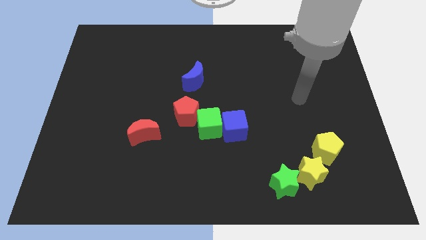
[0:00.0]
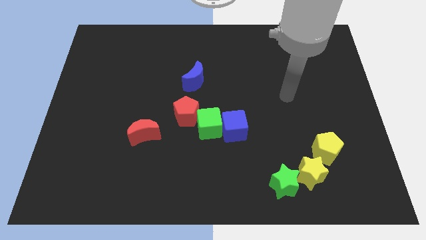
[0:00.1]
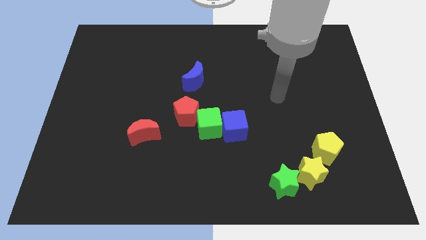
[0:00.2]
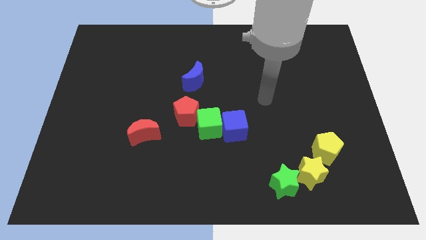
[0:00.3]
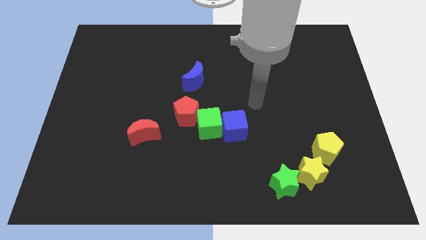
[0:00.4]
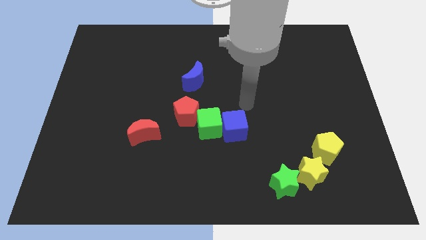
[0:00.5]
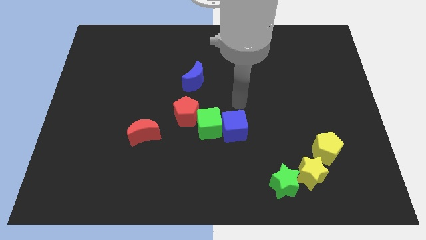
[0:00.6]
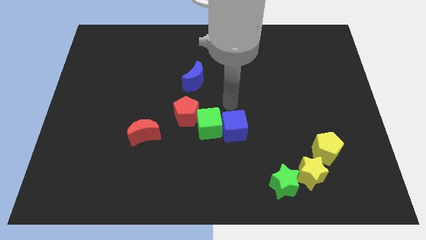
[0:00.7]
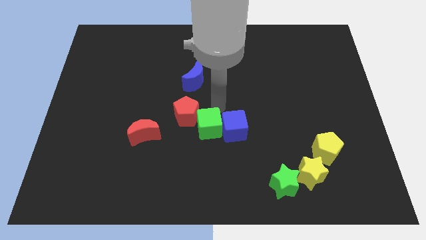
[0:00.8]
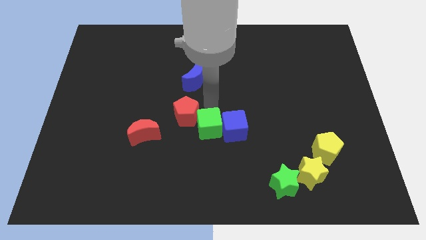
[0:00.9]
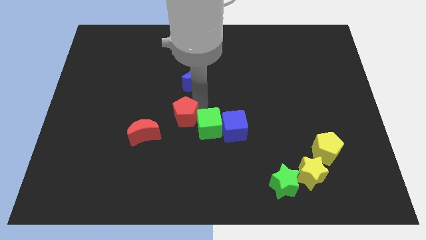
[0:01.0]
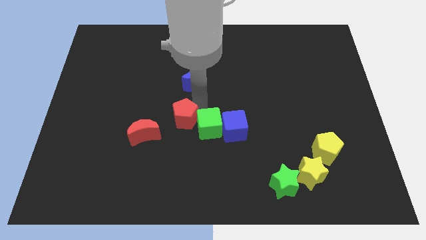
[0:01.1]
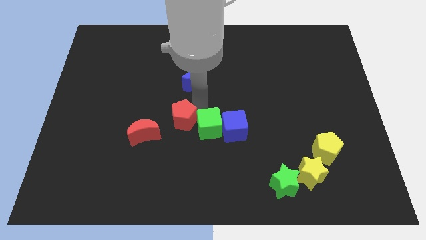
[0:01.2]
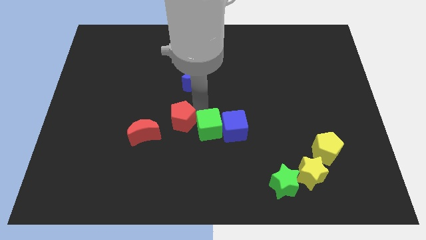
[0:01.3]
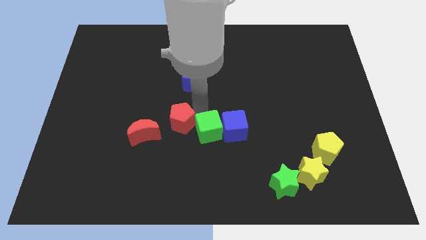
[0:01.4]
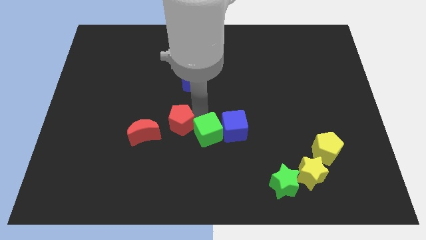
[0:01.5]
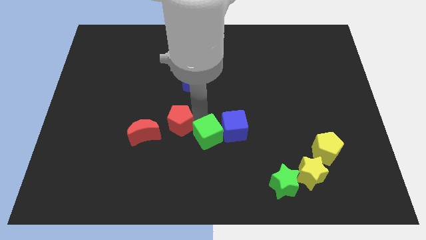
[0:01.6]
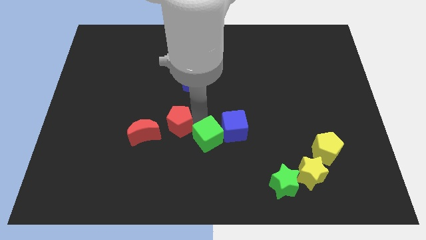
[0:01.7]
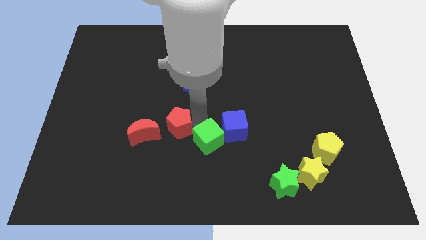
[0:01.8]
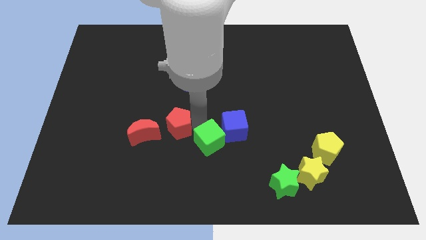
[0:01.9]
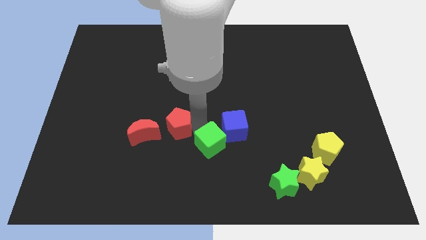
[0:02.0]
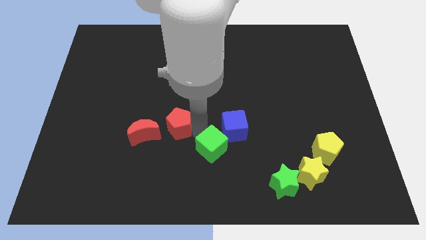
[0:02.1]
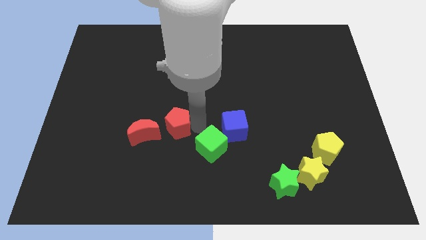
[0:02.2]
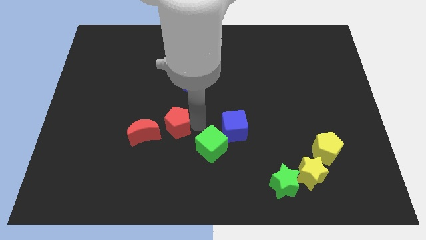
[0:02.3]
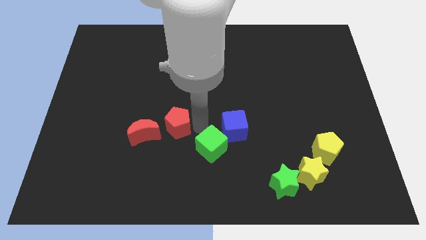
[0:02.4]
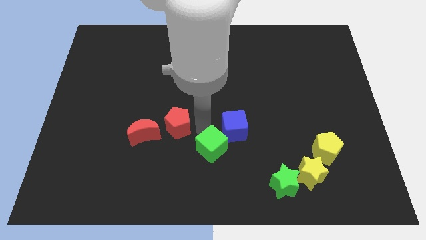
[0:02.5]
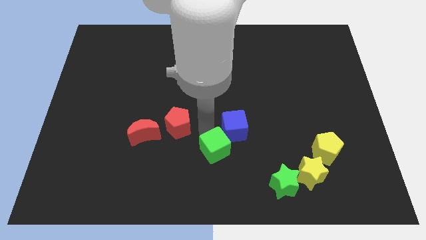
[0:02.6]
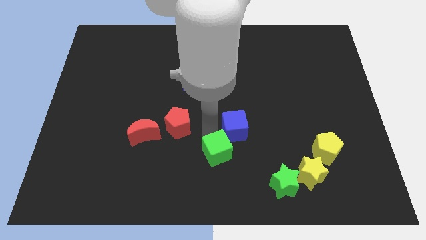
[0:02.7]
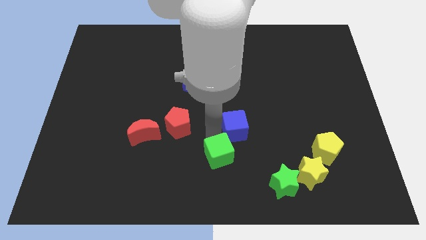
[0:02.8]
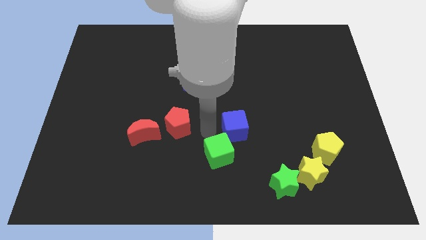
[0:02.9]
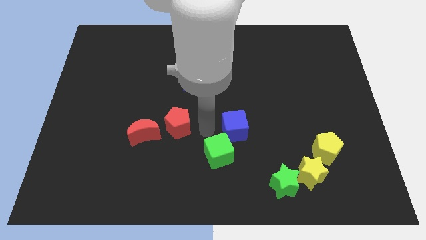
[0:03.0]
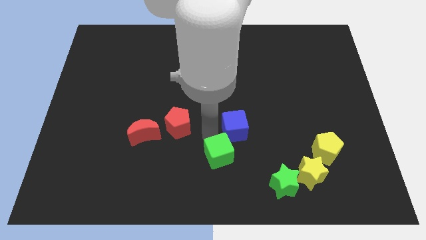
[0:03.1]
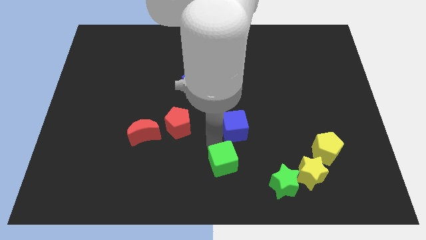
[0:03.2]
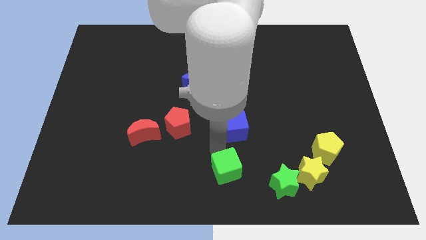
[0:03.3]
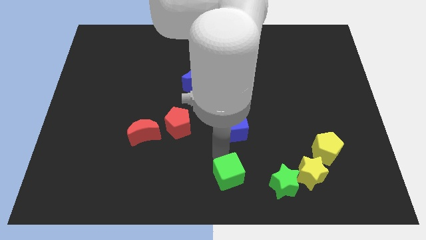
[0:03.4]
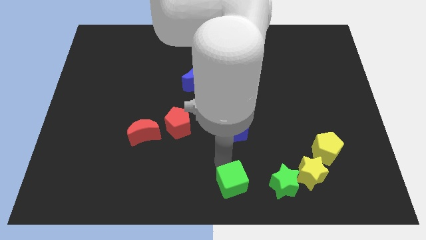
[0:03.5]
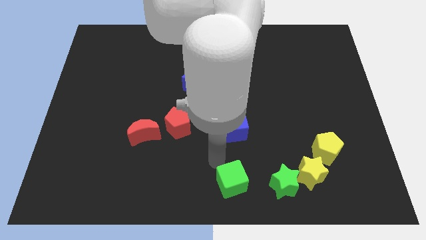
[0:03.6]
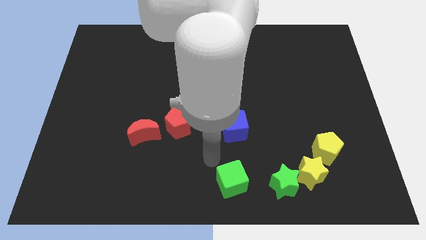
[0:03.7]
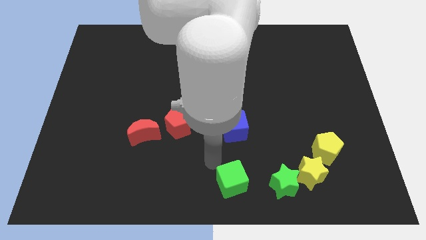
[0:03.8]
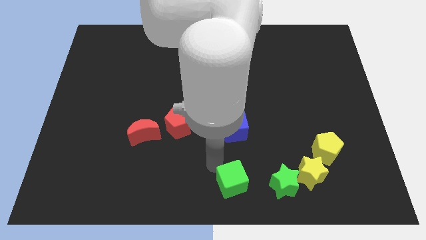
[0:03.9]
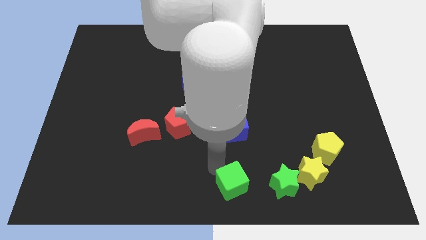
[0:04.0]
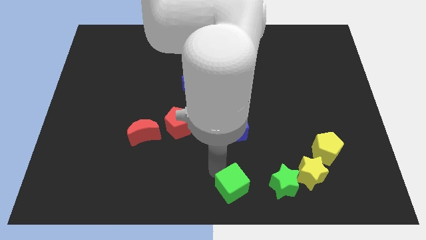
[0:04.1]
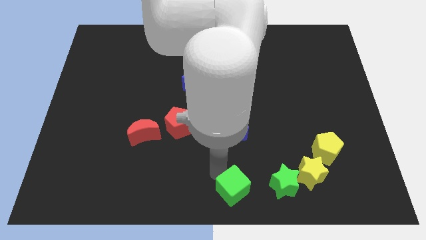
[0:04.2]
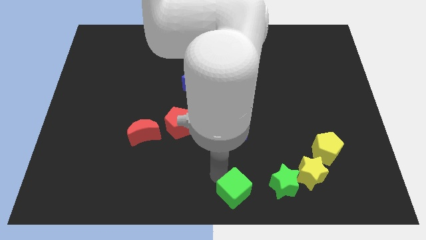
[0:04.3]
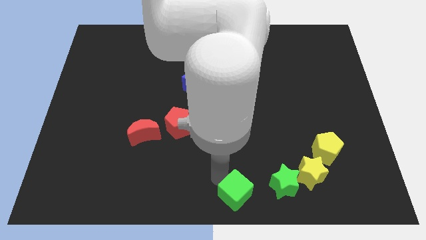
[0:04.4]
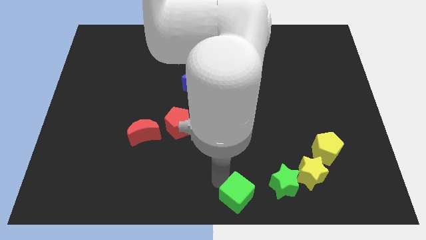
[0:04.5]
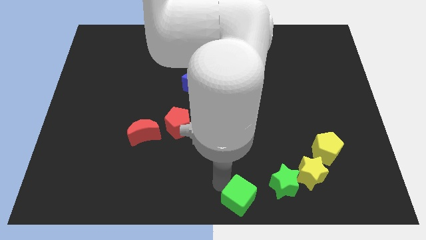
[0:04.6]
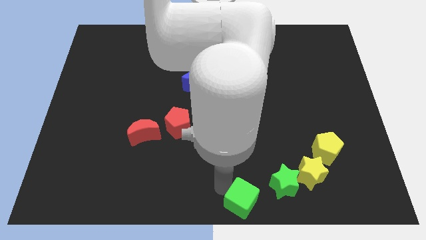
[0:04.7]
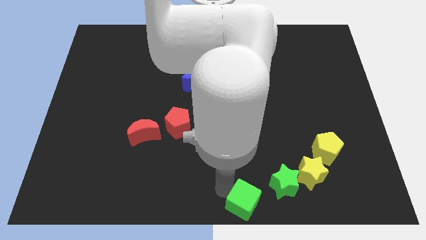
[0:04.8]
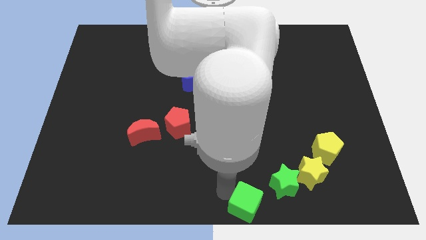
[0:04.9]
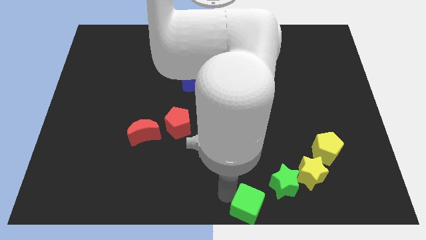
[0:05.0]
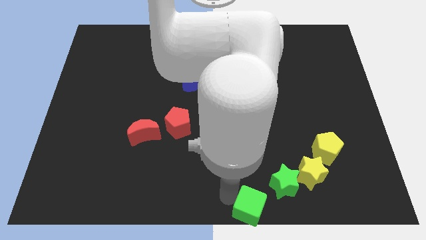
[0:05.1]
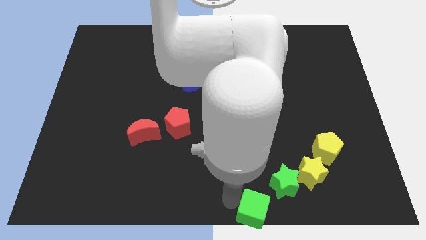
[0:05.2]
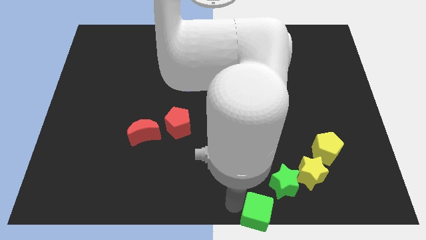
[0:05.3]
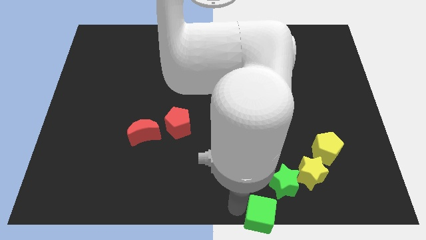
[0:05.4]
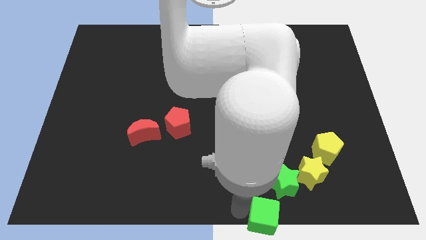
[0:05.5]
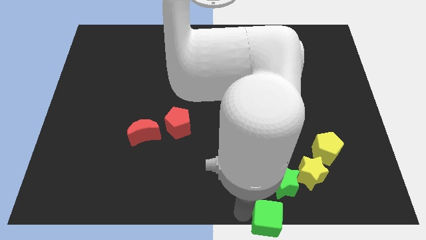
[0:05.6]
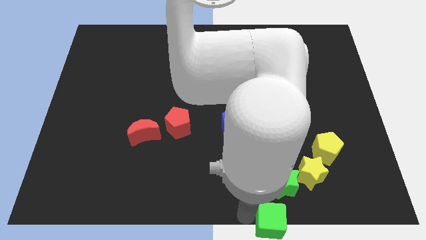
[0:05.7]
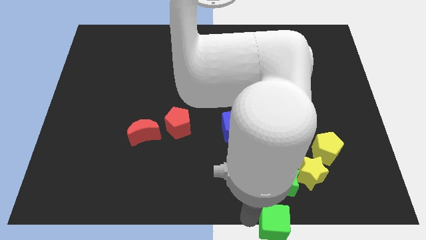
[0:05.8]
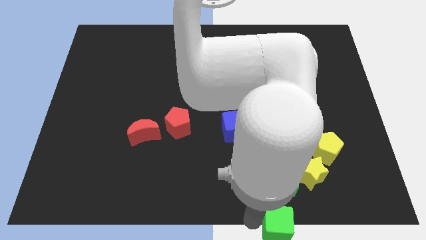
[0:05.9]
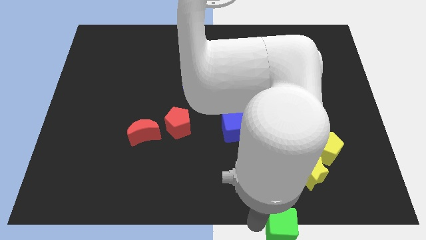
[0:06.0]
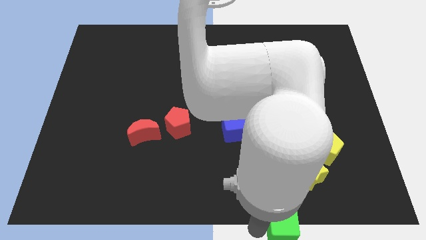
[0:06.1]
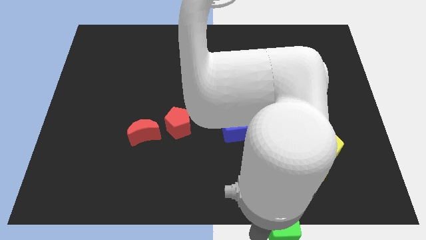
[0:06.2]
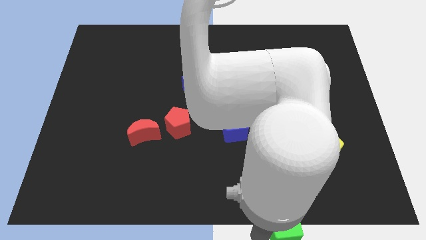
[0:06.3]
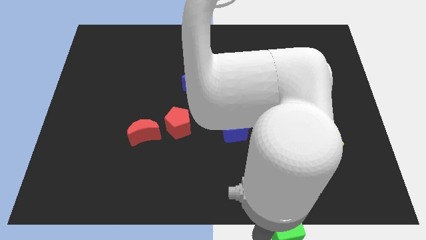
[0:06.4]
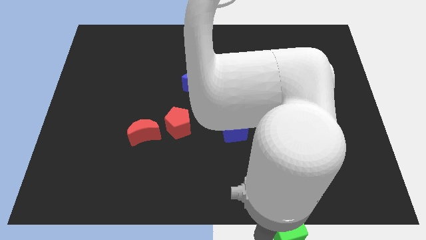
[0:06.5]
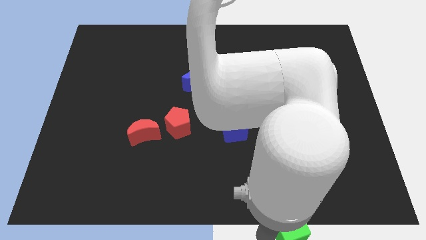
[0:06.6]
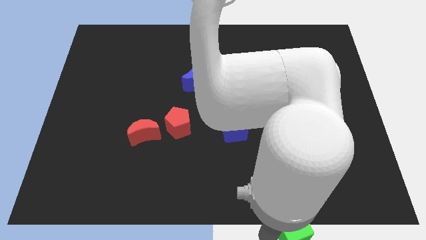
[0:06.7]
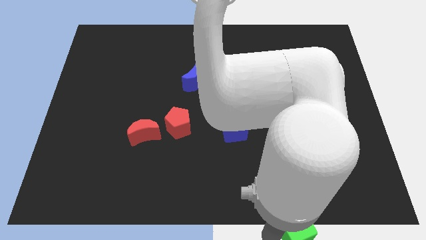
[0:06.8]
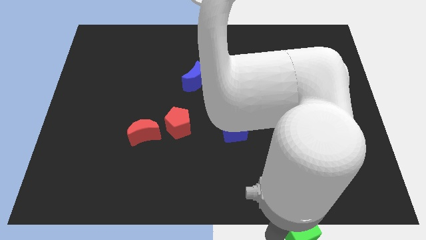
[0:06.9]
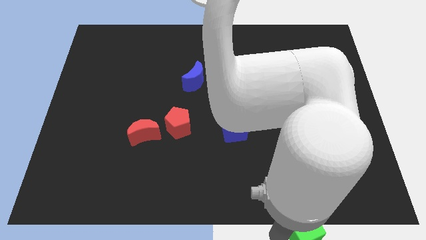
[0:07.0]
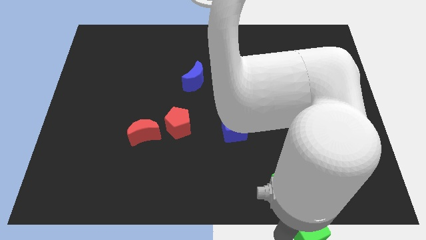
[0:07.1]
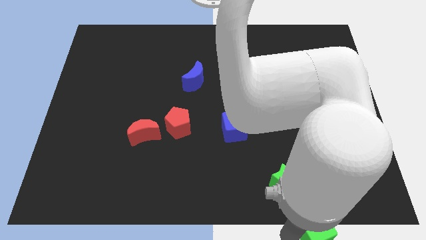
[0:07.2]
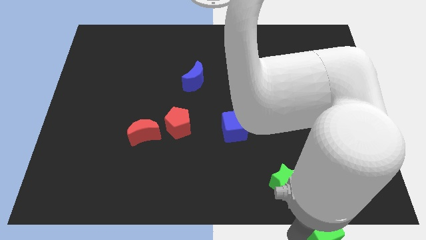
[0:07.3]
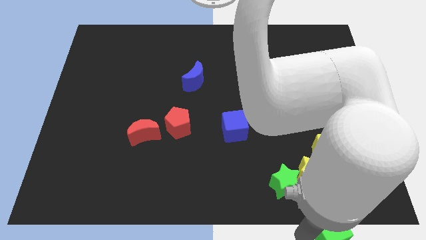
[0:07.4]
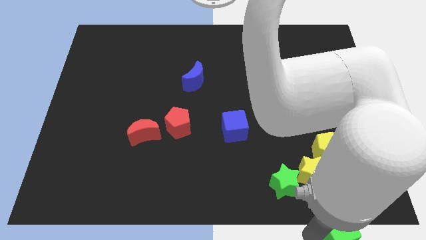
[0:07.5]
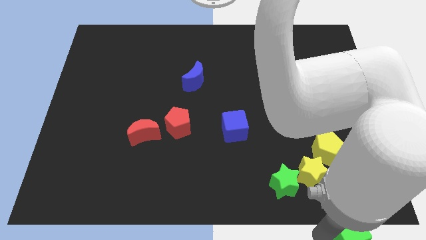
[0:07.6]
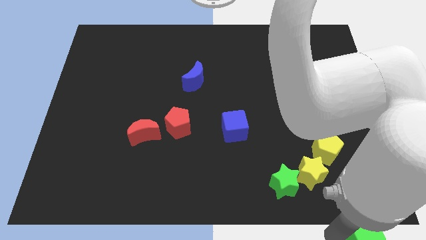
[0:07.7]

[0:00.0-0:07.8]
put the green cube to the bottom right corner
